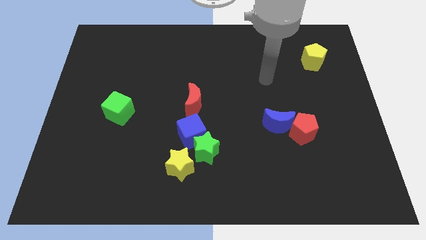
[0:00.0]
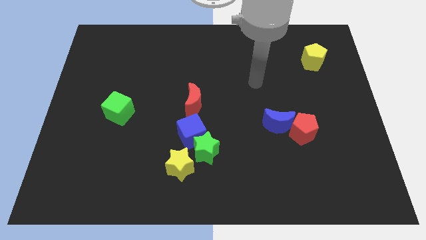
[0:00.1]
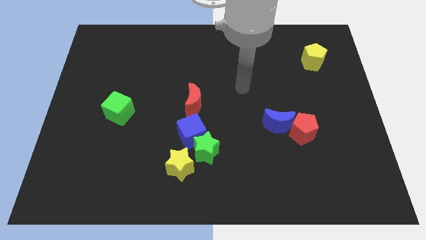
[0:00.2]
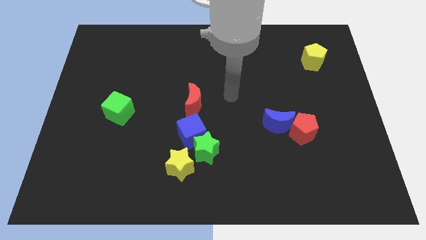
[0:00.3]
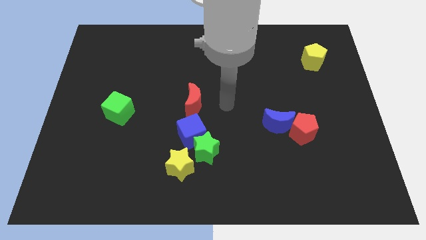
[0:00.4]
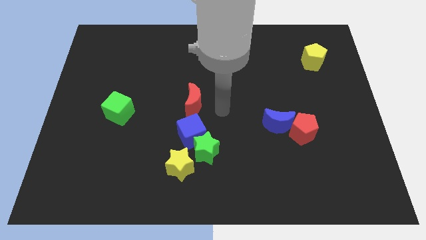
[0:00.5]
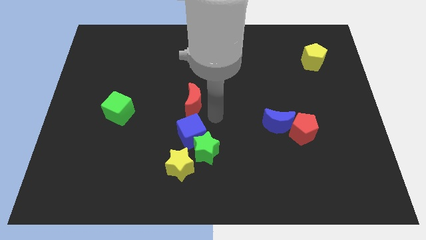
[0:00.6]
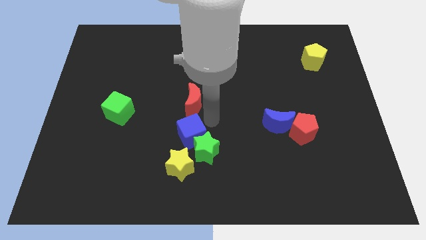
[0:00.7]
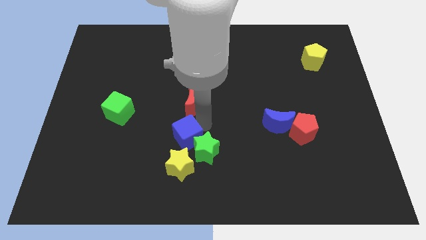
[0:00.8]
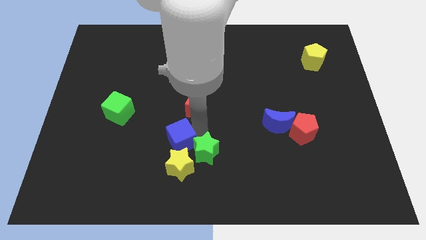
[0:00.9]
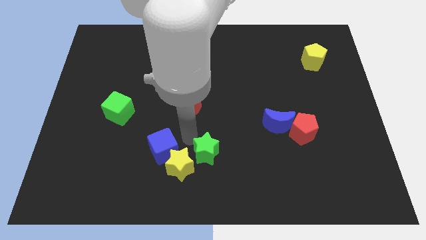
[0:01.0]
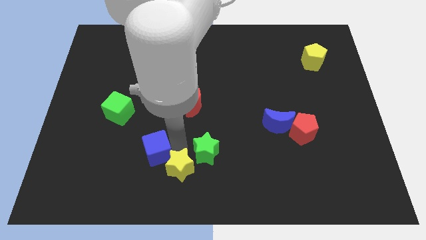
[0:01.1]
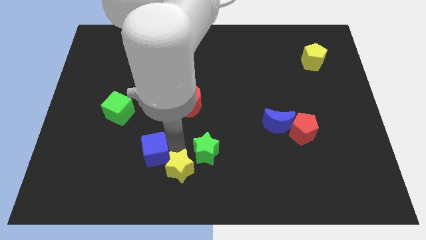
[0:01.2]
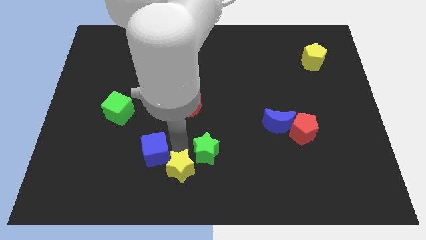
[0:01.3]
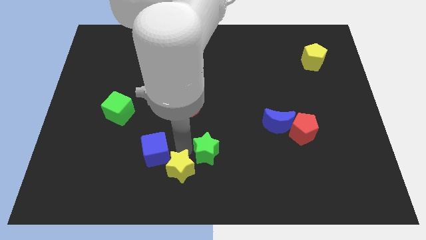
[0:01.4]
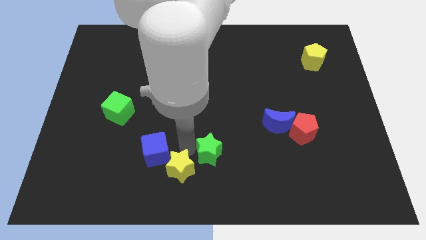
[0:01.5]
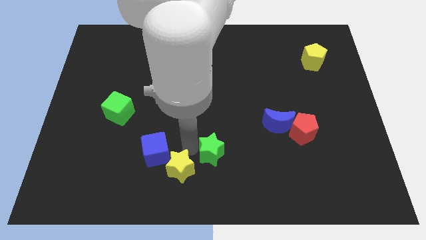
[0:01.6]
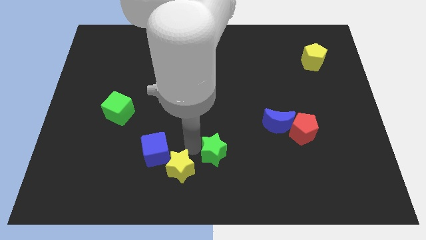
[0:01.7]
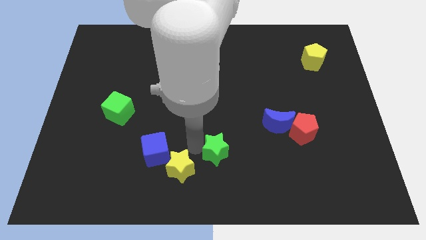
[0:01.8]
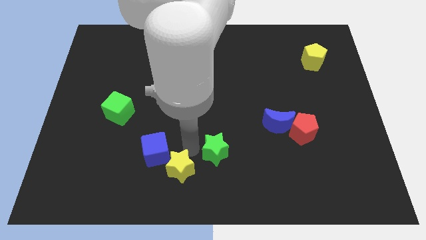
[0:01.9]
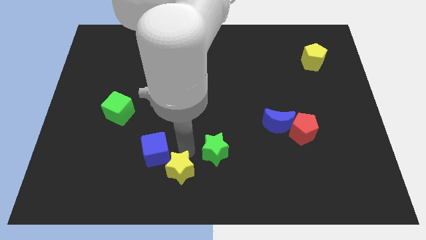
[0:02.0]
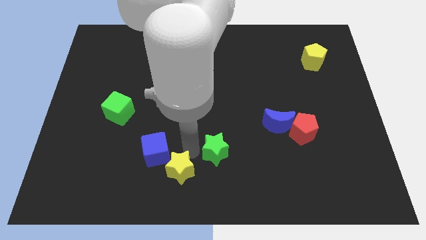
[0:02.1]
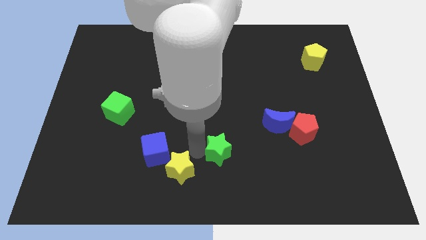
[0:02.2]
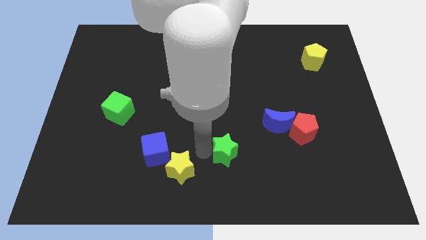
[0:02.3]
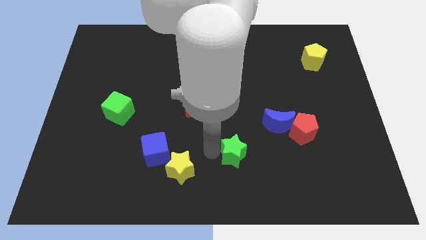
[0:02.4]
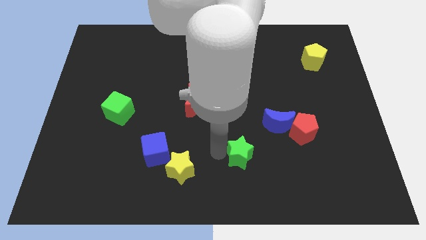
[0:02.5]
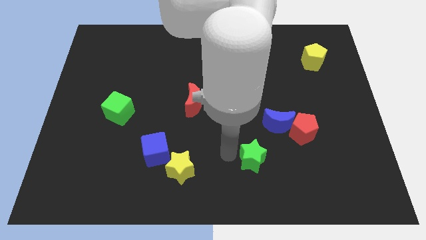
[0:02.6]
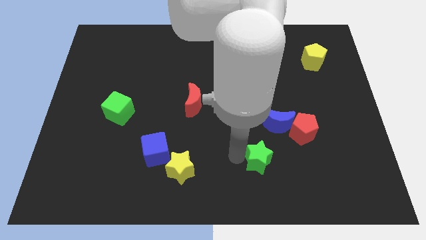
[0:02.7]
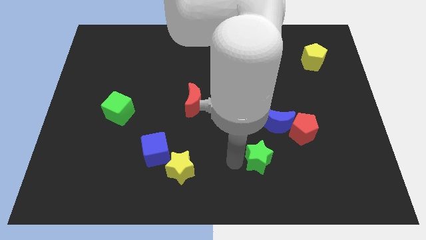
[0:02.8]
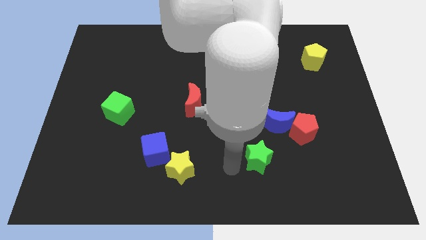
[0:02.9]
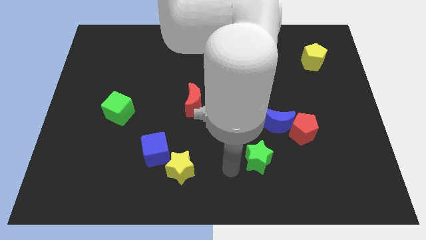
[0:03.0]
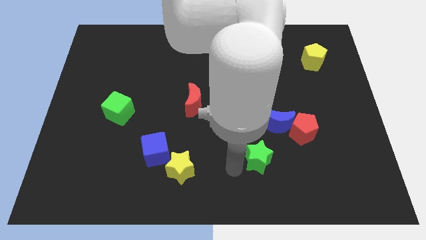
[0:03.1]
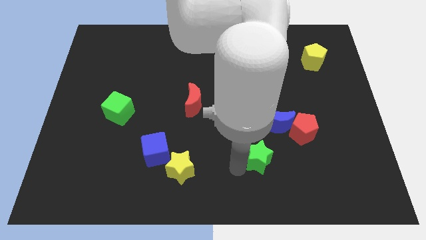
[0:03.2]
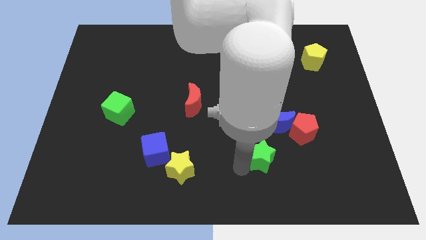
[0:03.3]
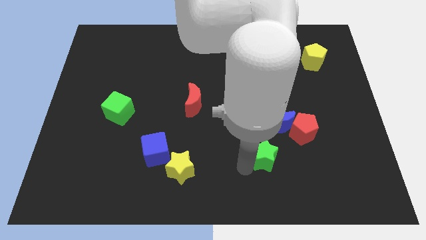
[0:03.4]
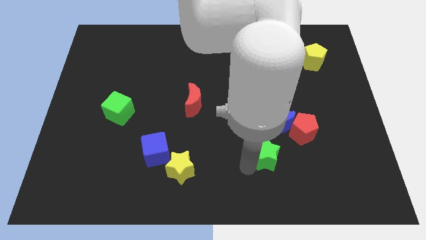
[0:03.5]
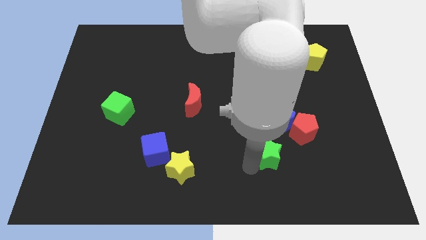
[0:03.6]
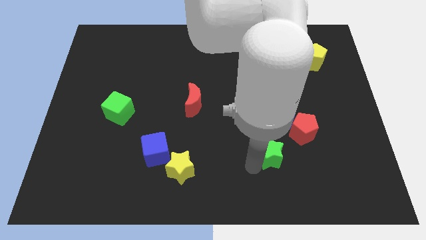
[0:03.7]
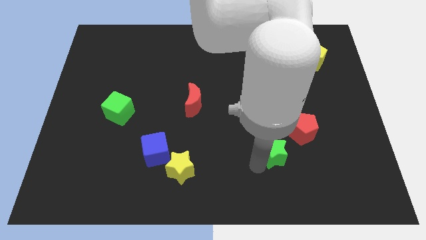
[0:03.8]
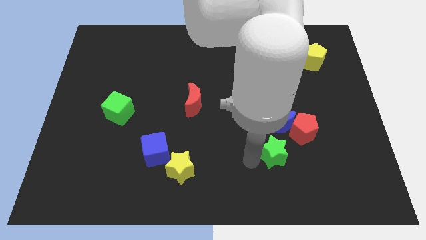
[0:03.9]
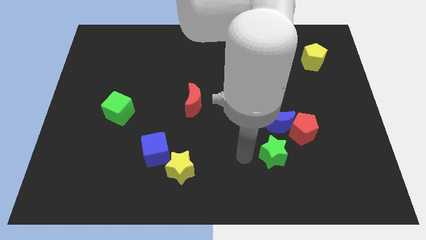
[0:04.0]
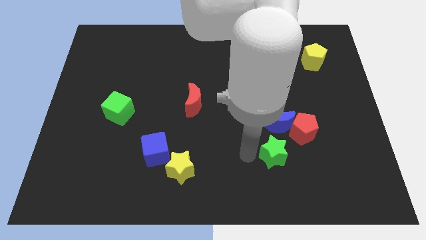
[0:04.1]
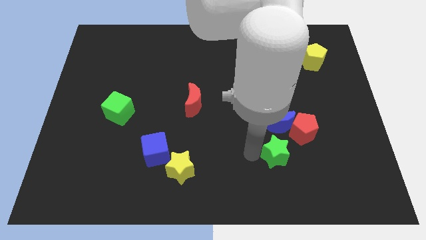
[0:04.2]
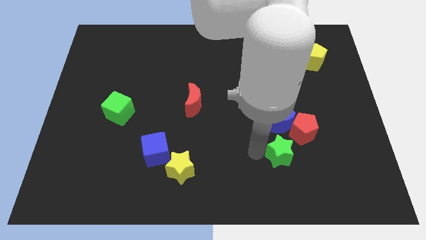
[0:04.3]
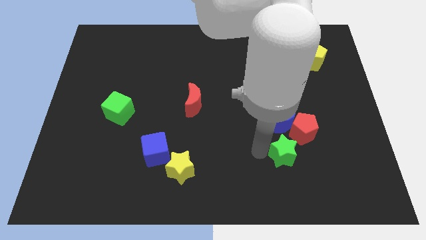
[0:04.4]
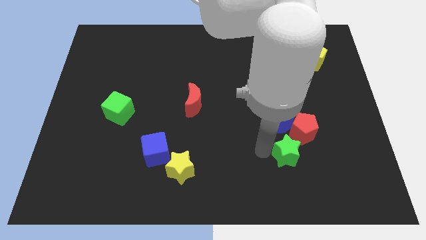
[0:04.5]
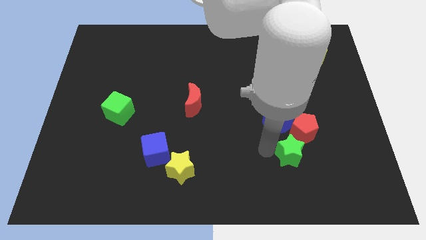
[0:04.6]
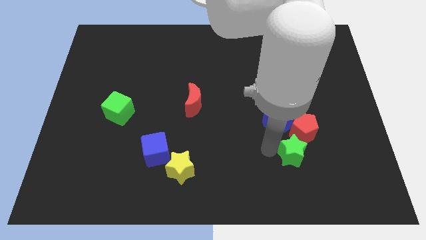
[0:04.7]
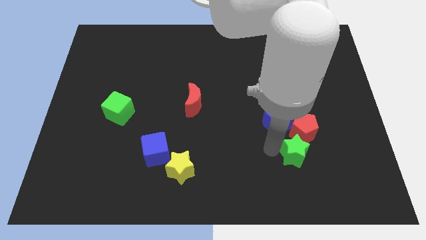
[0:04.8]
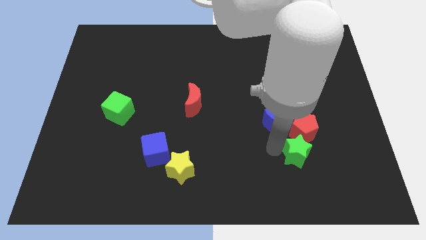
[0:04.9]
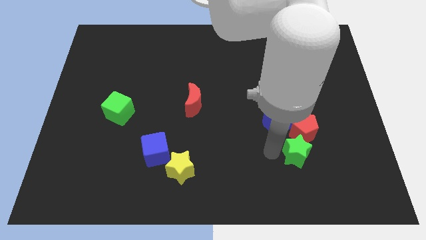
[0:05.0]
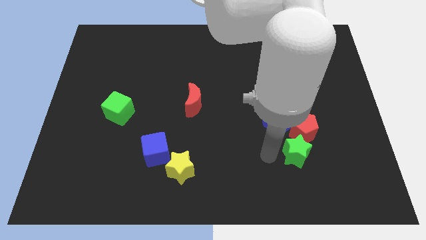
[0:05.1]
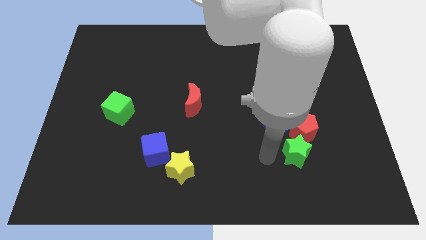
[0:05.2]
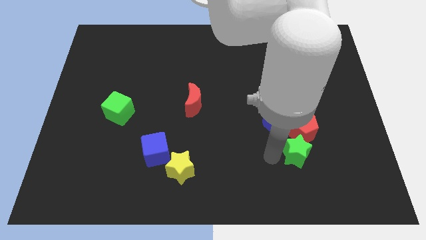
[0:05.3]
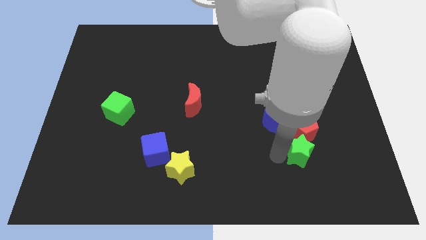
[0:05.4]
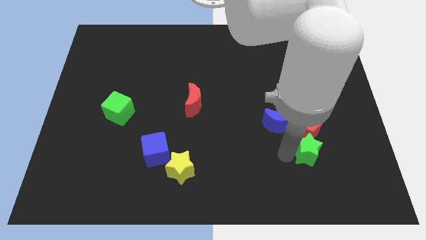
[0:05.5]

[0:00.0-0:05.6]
slide the green star to the bottom right side of the red pentagon
